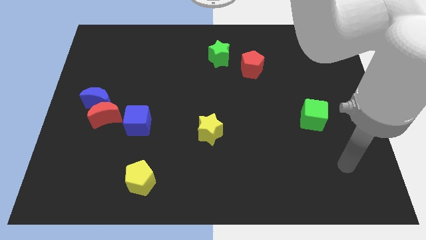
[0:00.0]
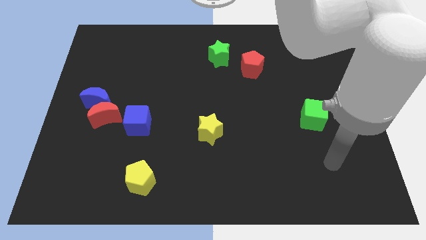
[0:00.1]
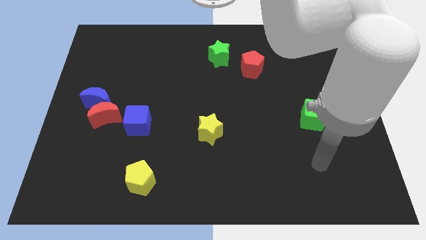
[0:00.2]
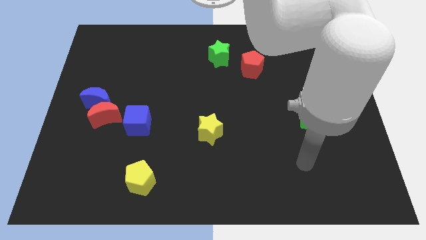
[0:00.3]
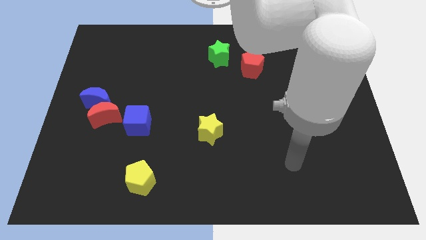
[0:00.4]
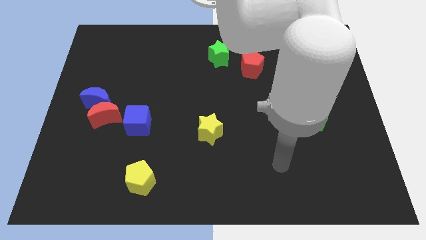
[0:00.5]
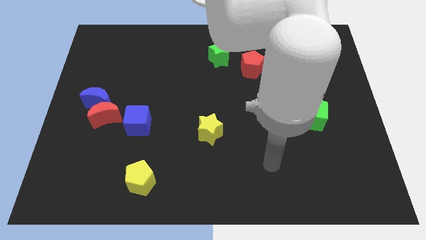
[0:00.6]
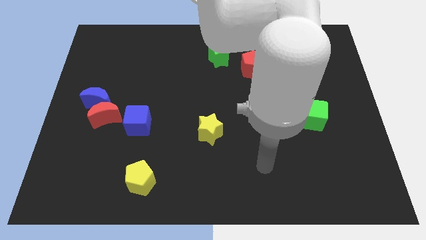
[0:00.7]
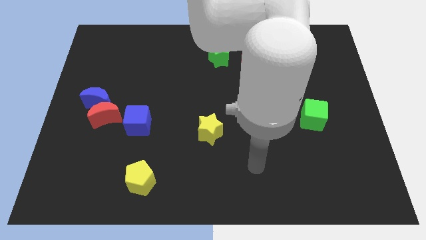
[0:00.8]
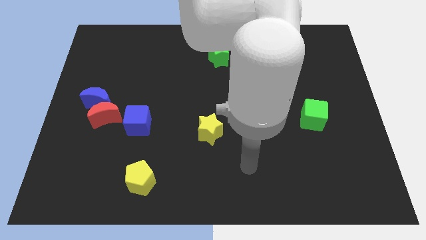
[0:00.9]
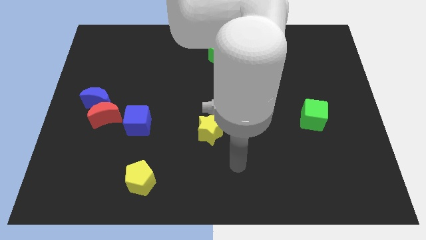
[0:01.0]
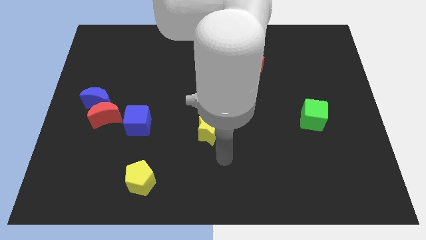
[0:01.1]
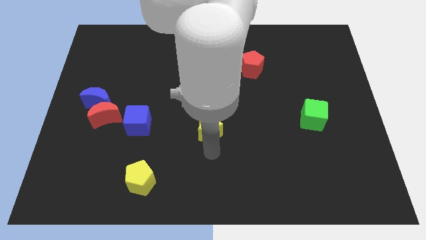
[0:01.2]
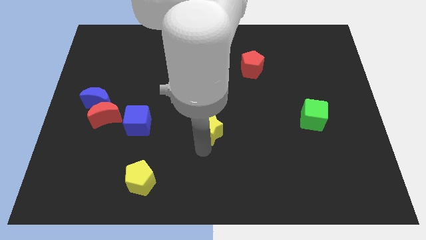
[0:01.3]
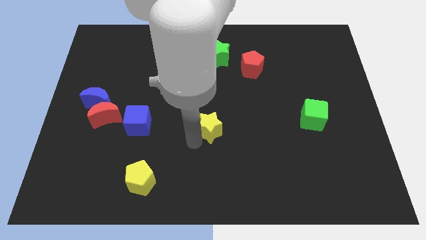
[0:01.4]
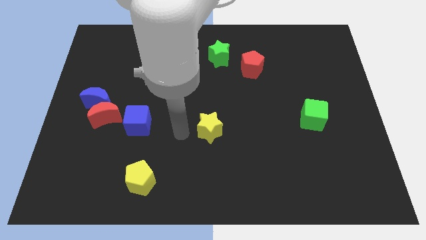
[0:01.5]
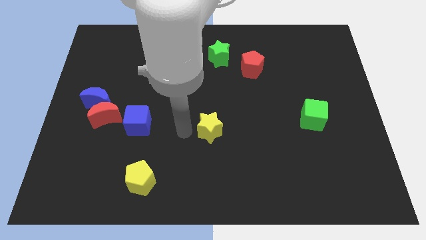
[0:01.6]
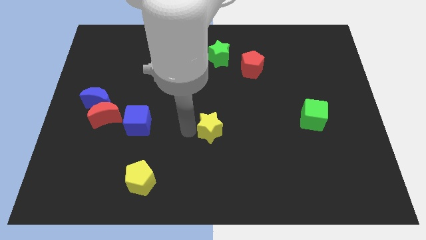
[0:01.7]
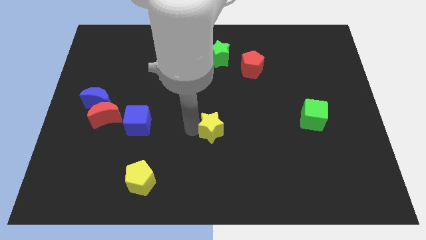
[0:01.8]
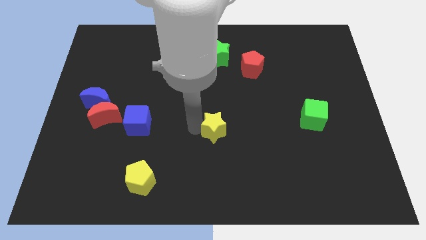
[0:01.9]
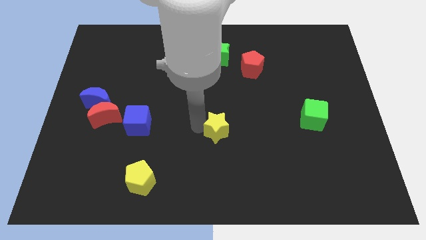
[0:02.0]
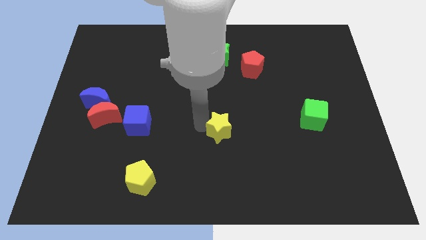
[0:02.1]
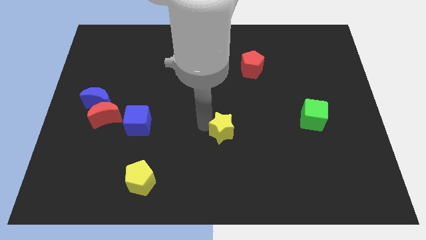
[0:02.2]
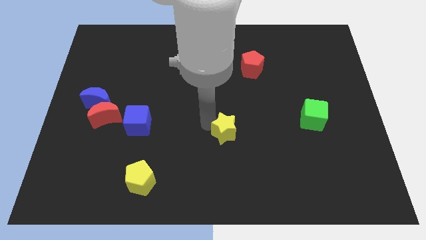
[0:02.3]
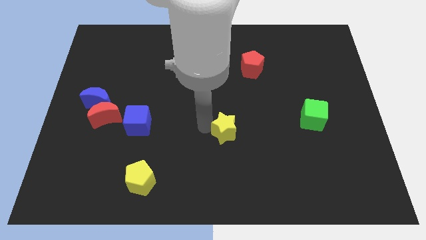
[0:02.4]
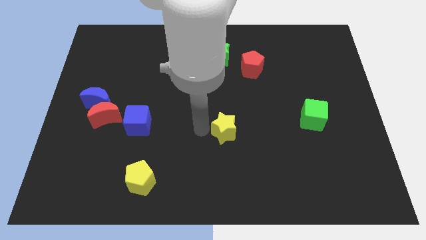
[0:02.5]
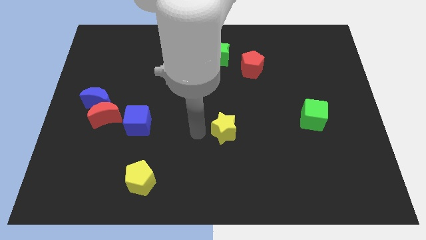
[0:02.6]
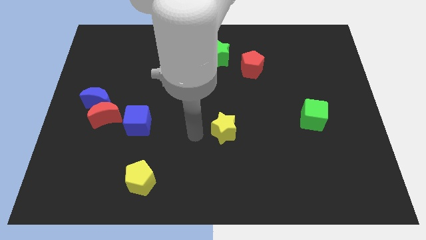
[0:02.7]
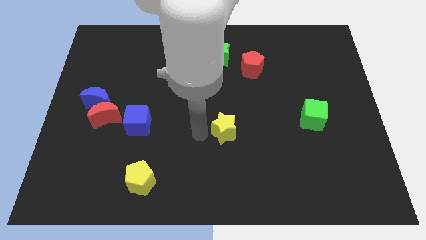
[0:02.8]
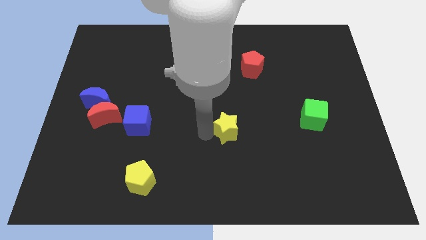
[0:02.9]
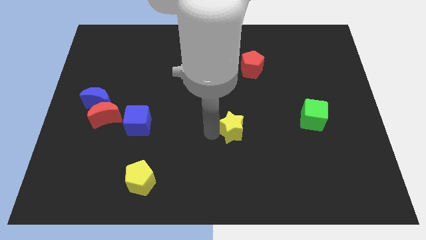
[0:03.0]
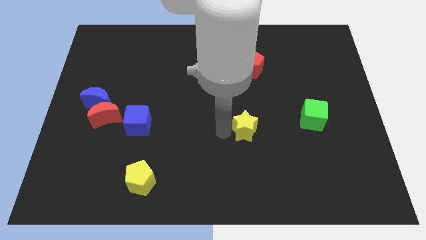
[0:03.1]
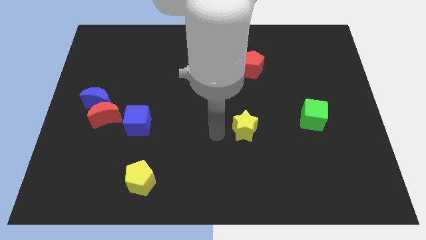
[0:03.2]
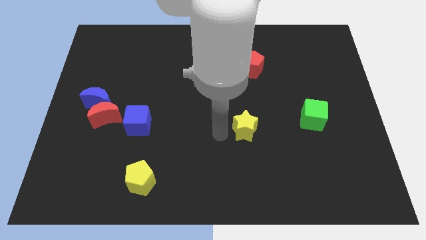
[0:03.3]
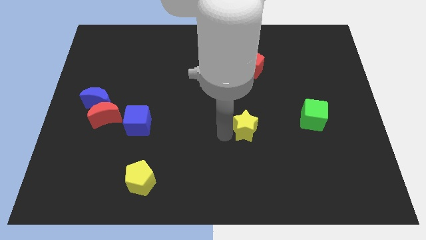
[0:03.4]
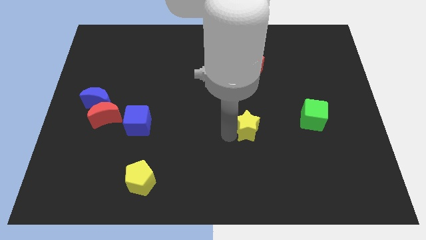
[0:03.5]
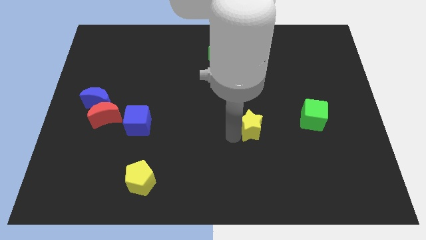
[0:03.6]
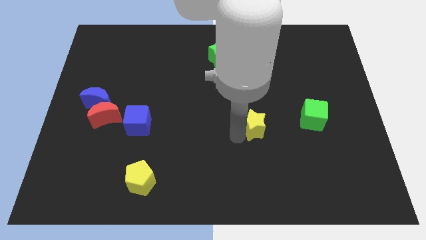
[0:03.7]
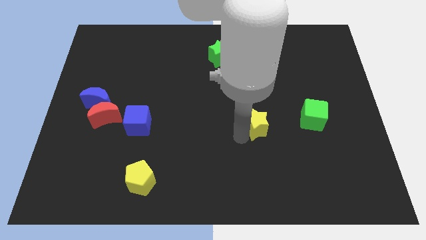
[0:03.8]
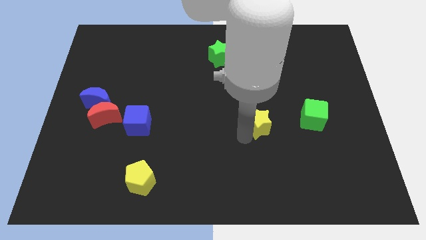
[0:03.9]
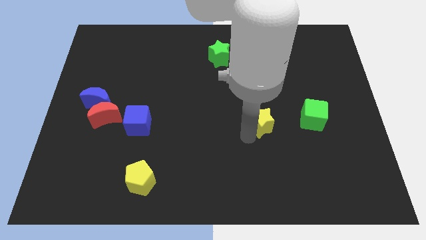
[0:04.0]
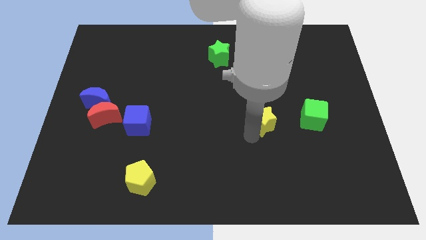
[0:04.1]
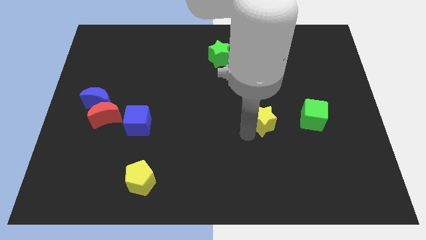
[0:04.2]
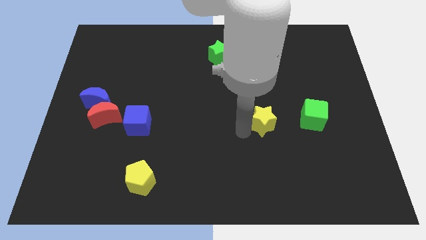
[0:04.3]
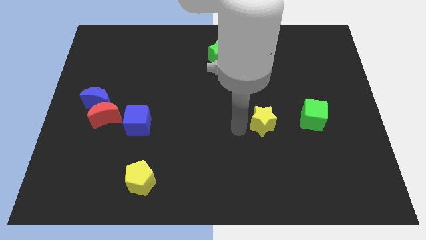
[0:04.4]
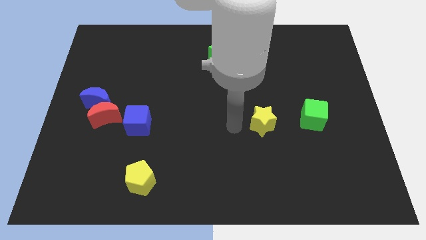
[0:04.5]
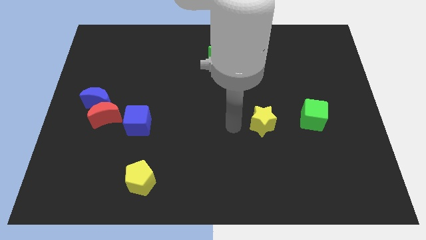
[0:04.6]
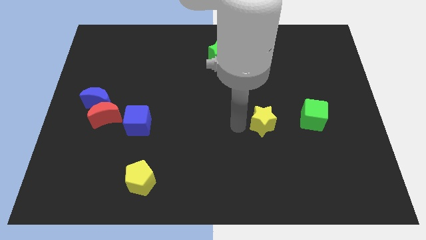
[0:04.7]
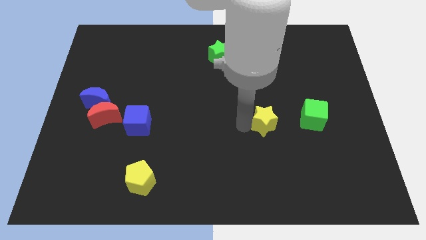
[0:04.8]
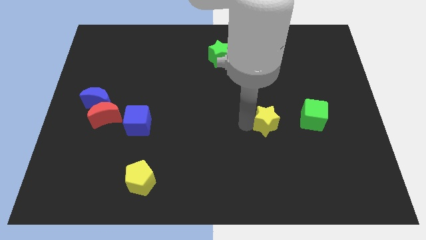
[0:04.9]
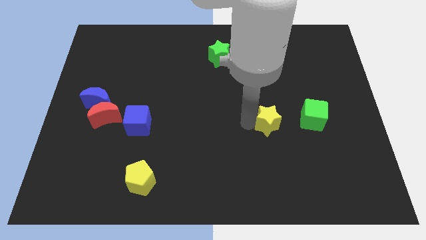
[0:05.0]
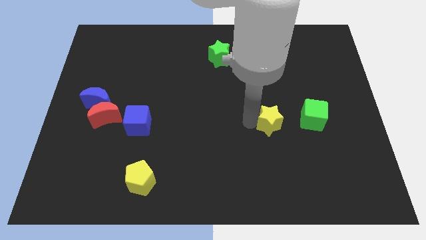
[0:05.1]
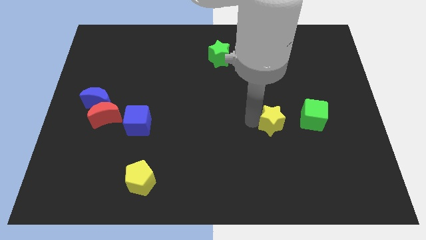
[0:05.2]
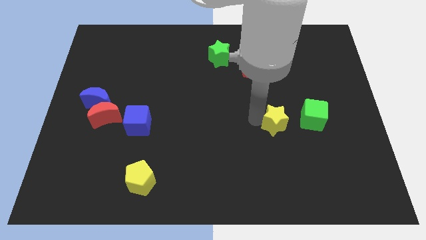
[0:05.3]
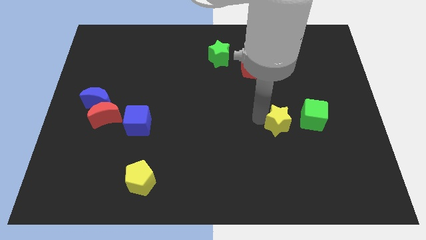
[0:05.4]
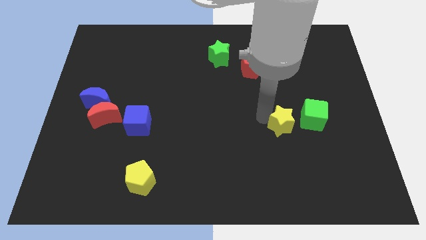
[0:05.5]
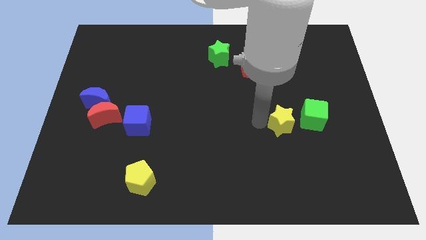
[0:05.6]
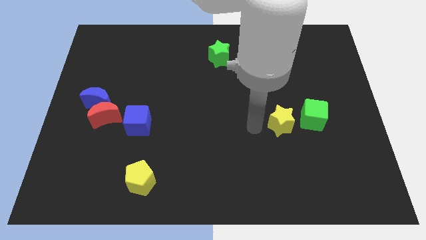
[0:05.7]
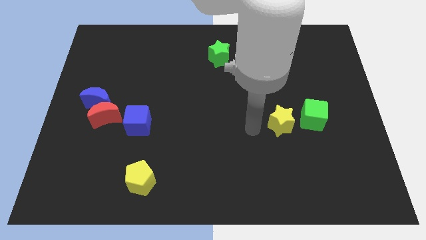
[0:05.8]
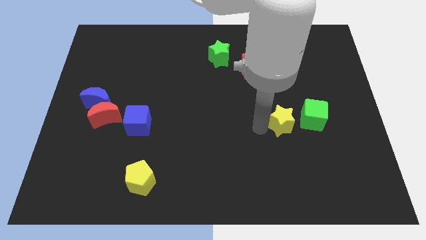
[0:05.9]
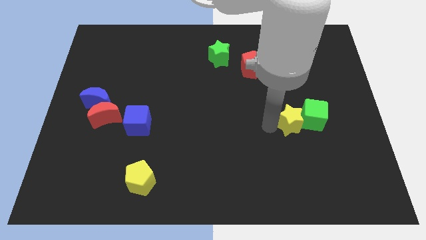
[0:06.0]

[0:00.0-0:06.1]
put the yellow star towards the green cube

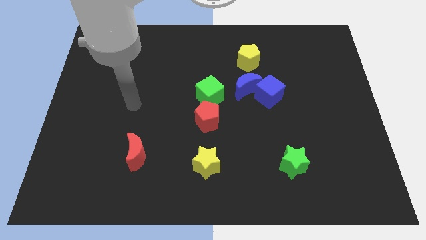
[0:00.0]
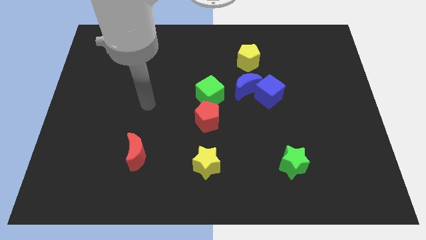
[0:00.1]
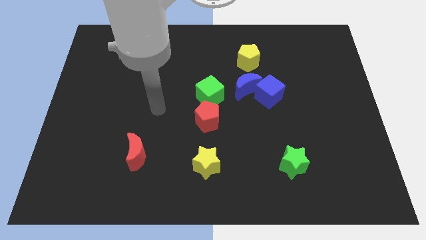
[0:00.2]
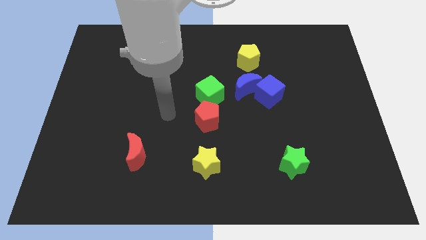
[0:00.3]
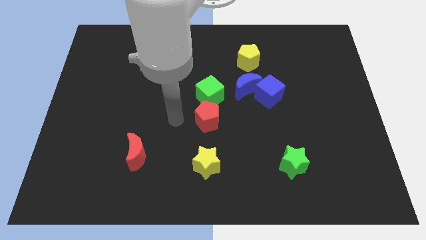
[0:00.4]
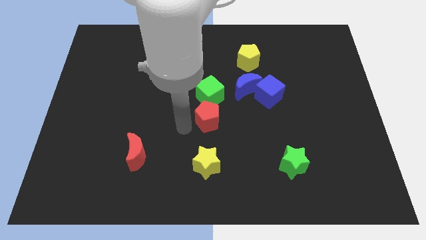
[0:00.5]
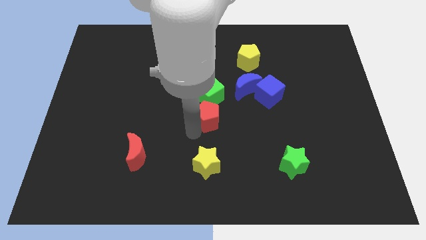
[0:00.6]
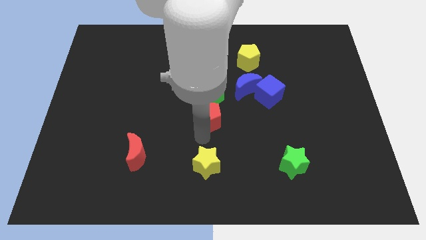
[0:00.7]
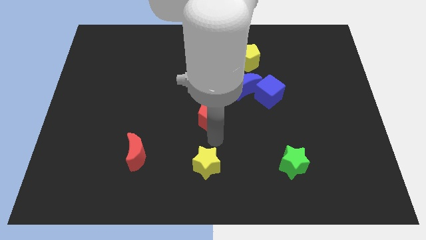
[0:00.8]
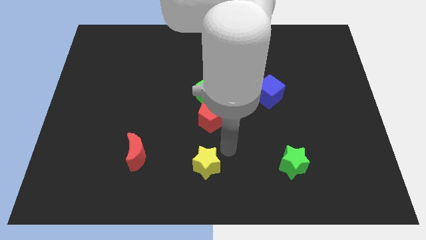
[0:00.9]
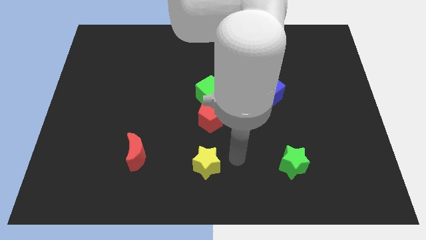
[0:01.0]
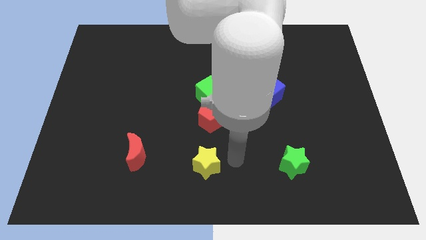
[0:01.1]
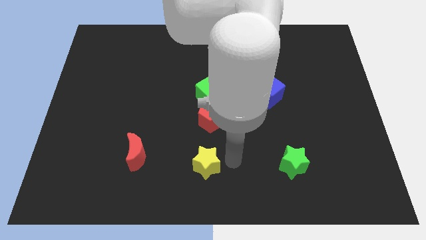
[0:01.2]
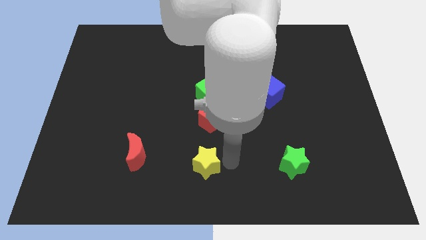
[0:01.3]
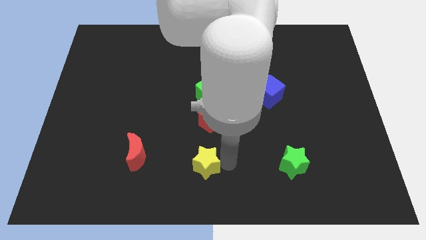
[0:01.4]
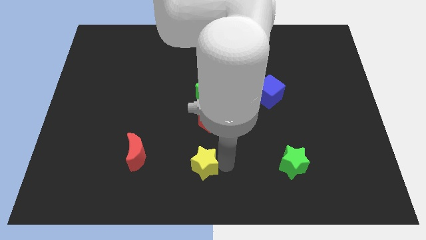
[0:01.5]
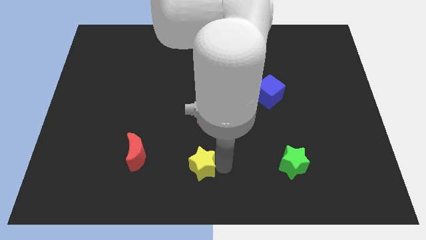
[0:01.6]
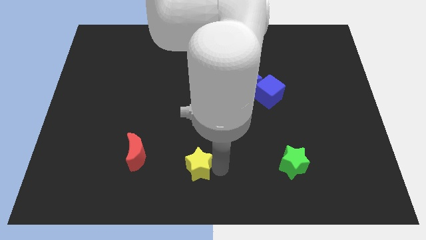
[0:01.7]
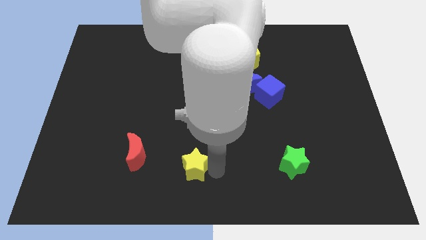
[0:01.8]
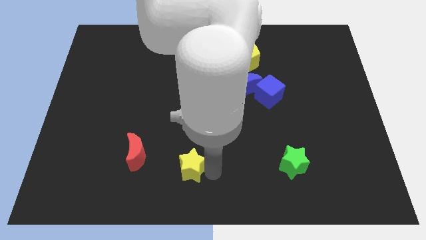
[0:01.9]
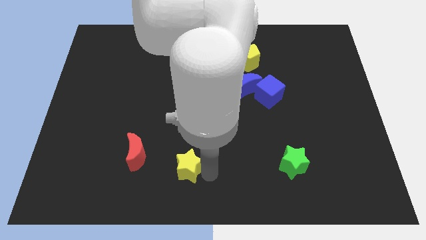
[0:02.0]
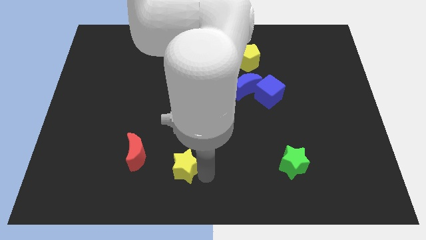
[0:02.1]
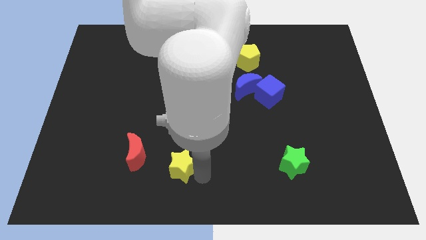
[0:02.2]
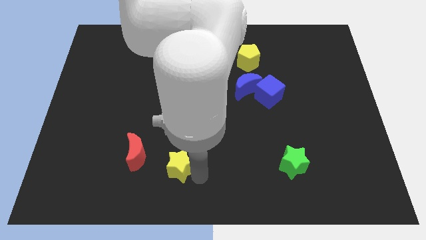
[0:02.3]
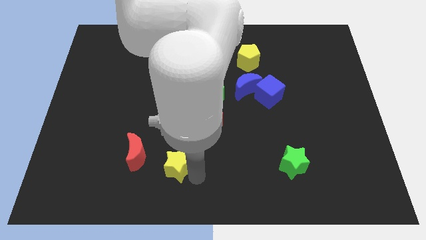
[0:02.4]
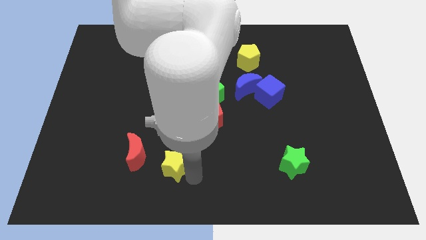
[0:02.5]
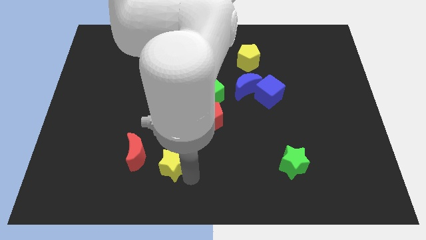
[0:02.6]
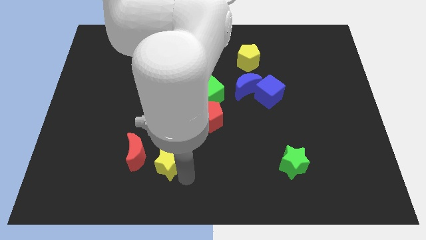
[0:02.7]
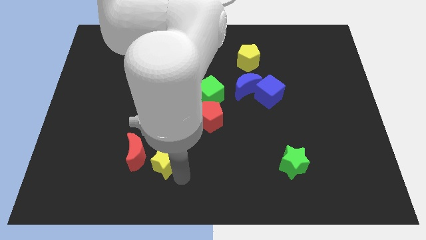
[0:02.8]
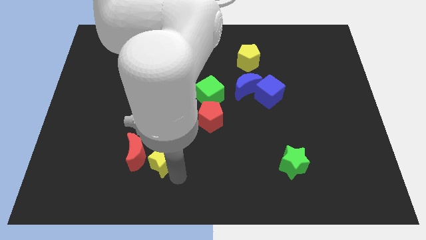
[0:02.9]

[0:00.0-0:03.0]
push the yellow star close to the red moon
